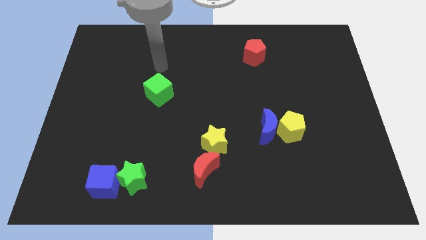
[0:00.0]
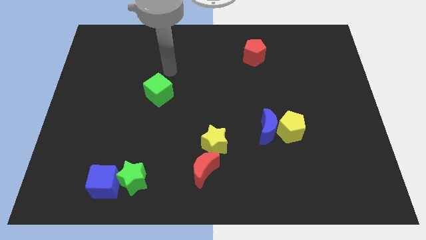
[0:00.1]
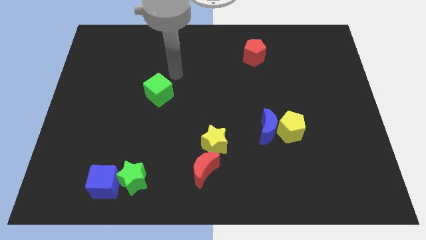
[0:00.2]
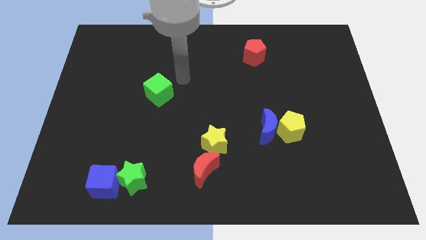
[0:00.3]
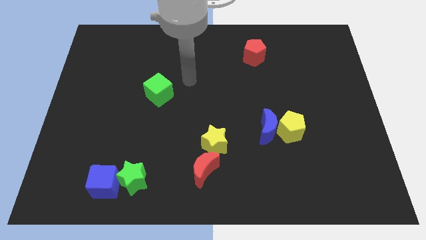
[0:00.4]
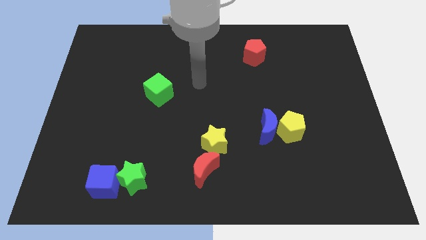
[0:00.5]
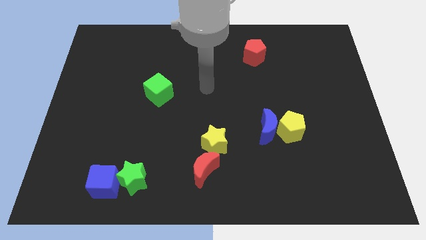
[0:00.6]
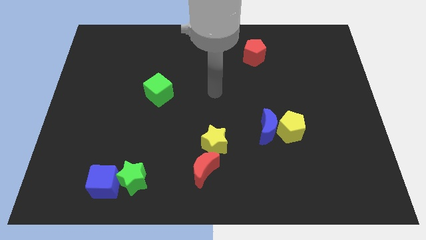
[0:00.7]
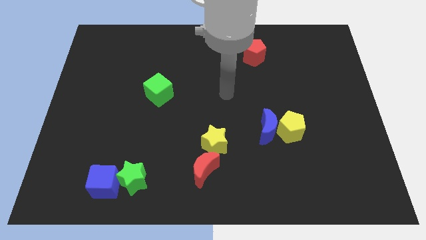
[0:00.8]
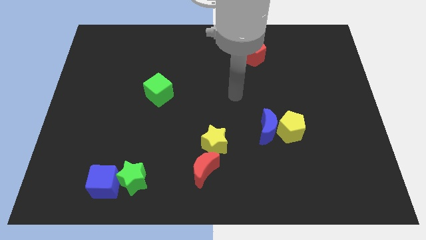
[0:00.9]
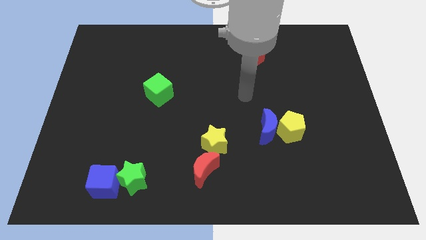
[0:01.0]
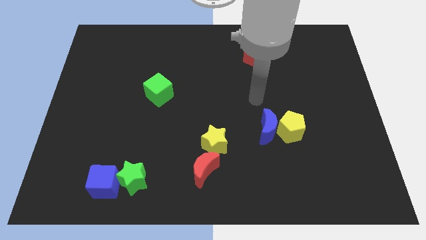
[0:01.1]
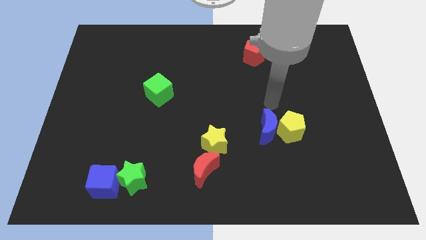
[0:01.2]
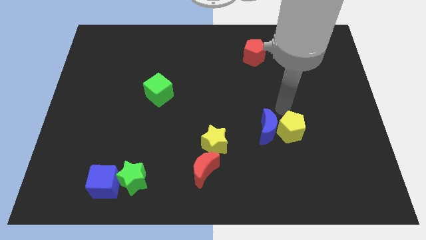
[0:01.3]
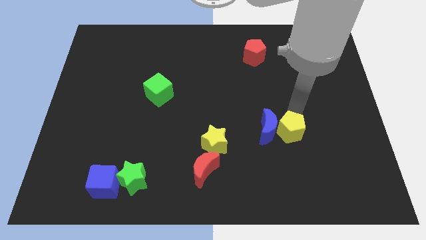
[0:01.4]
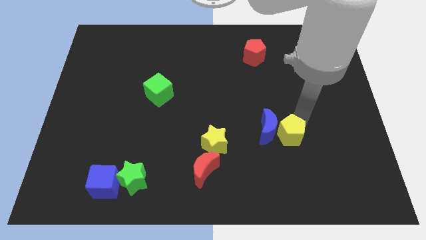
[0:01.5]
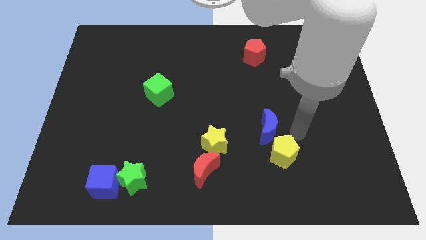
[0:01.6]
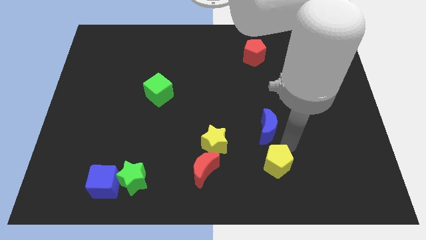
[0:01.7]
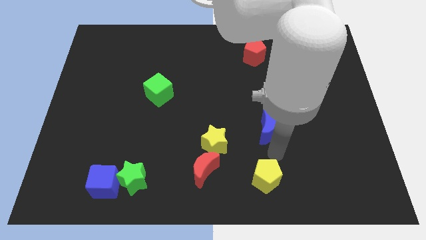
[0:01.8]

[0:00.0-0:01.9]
move the blue moon away from the yellow pentagon

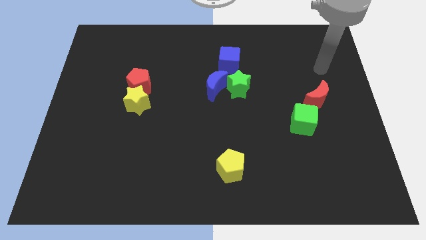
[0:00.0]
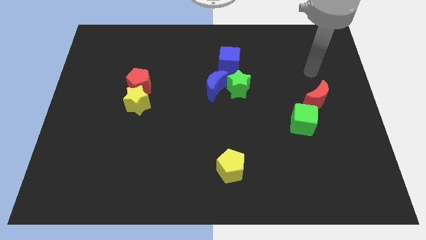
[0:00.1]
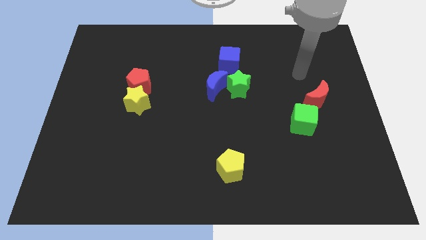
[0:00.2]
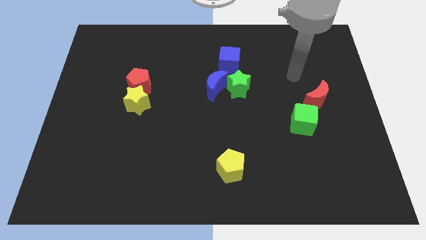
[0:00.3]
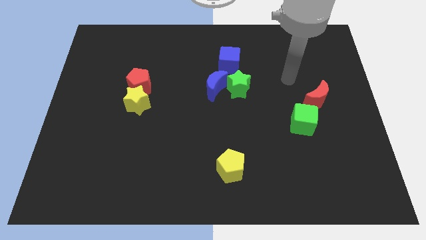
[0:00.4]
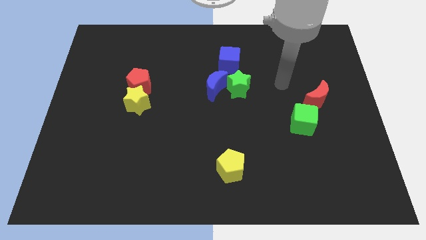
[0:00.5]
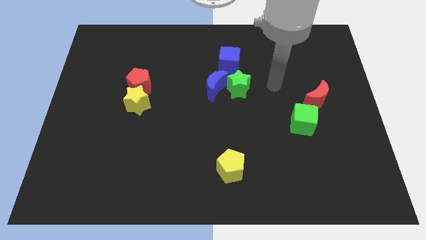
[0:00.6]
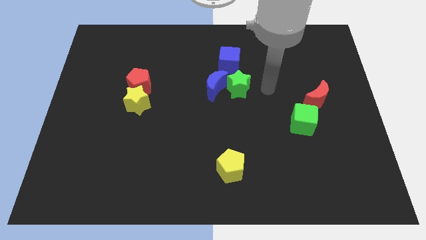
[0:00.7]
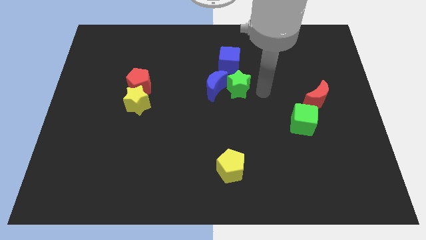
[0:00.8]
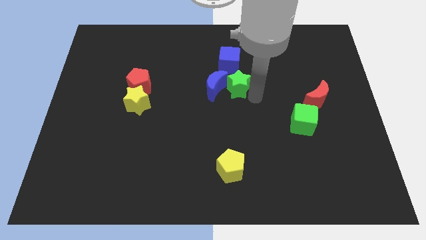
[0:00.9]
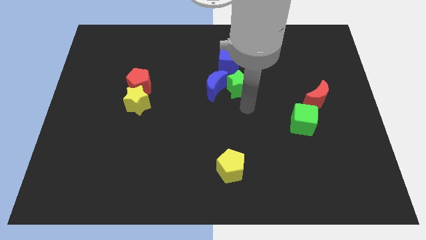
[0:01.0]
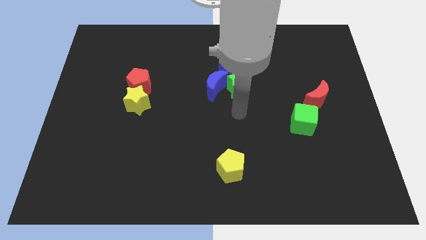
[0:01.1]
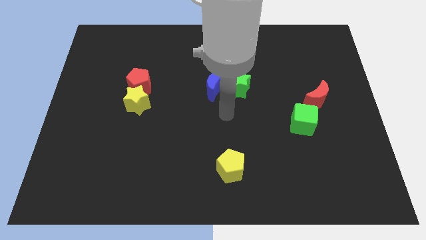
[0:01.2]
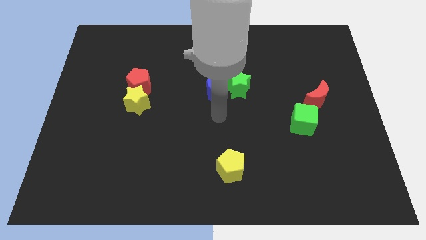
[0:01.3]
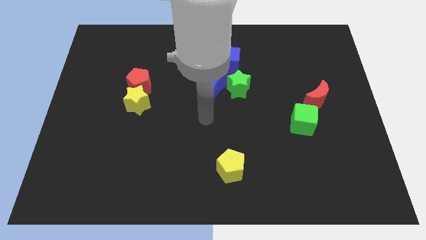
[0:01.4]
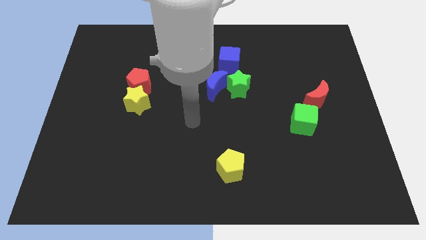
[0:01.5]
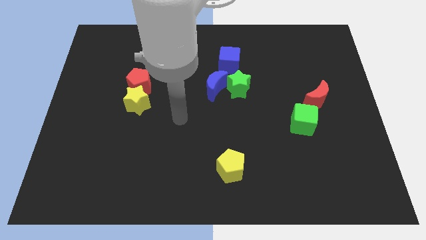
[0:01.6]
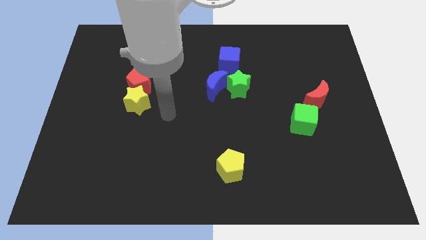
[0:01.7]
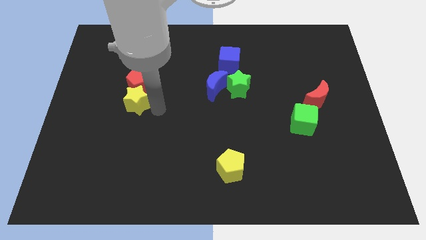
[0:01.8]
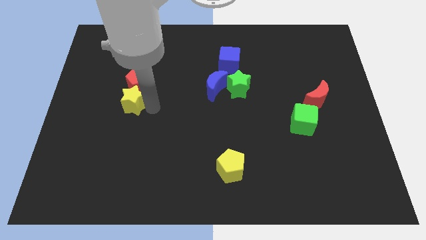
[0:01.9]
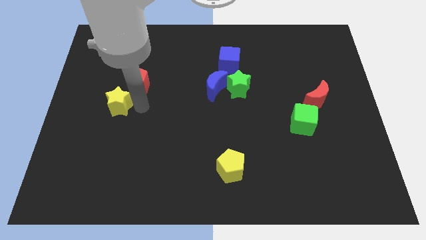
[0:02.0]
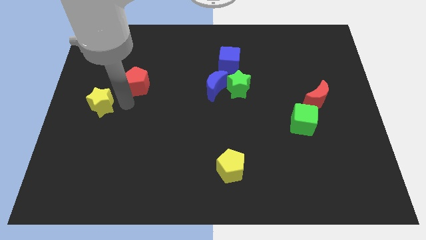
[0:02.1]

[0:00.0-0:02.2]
separate the red pentagon from the yellow star

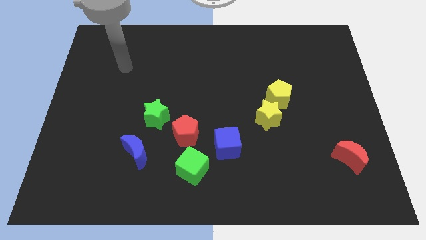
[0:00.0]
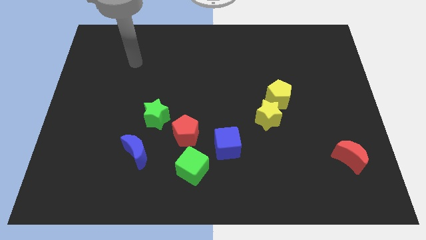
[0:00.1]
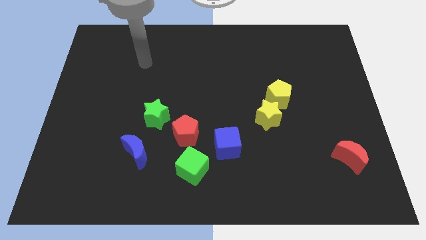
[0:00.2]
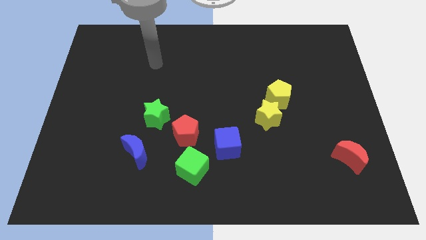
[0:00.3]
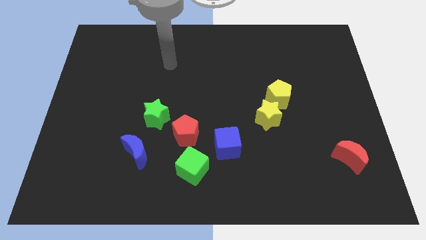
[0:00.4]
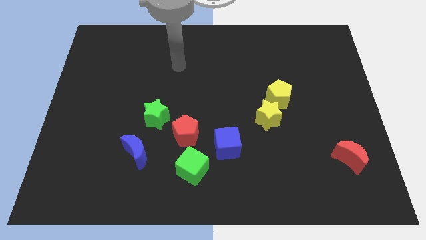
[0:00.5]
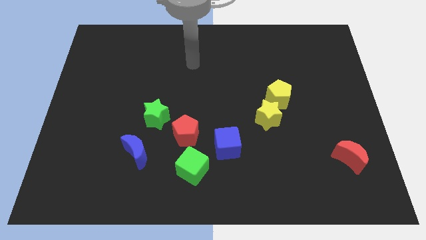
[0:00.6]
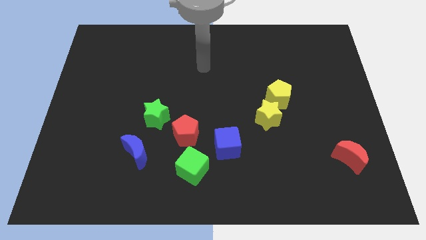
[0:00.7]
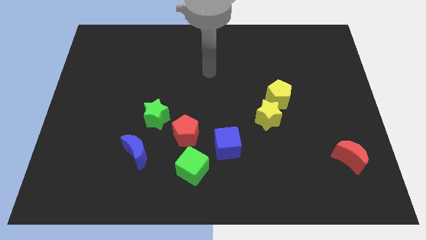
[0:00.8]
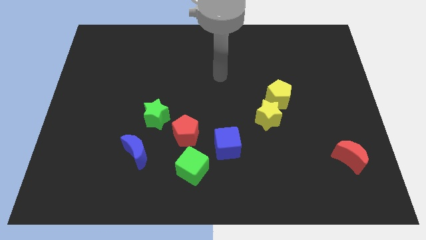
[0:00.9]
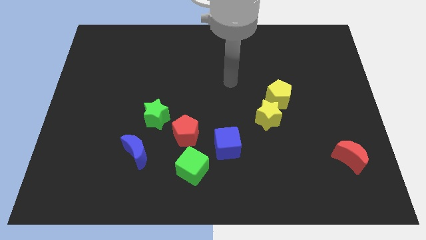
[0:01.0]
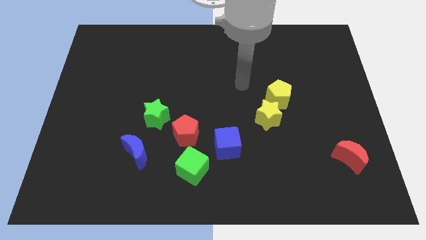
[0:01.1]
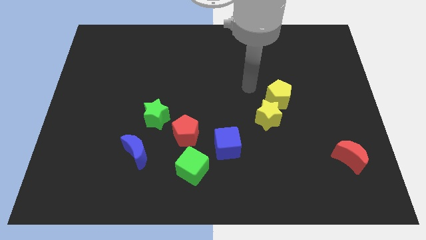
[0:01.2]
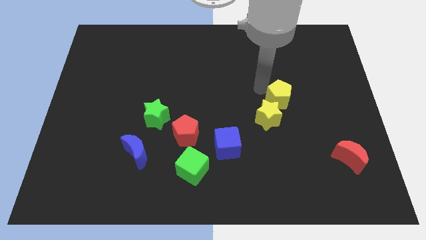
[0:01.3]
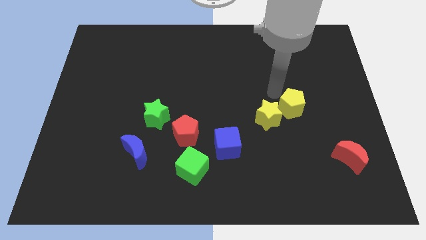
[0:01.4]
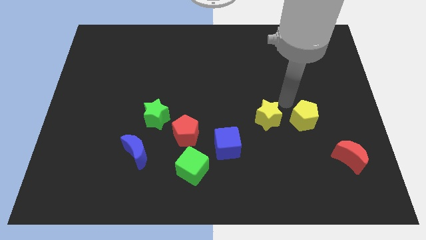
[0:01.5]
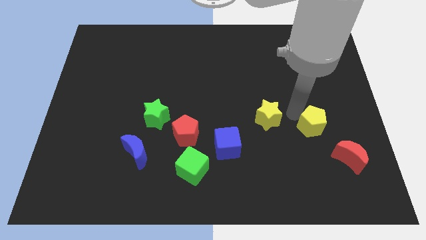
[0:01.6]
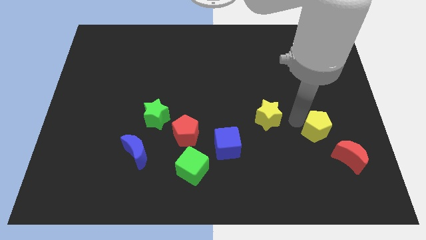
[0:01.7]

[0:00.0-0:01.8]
separate the yellow star from the yellow pentagon

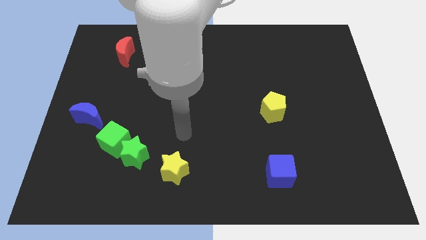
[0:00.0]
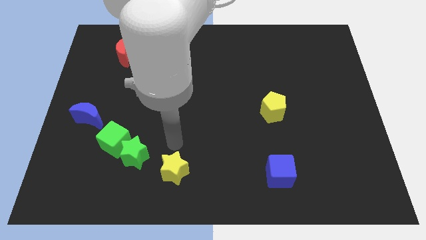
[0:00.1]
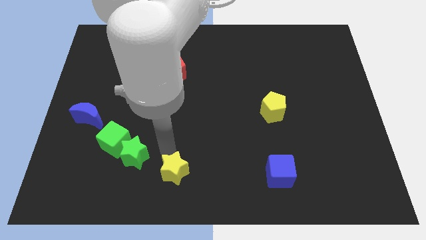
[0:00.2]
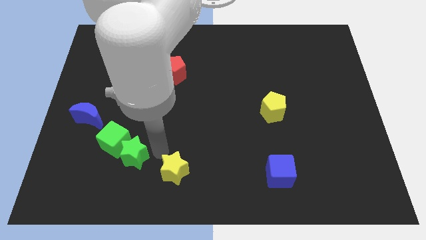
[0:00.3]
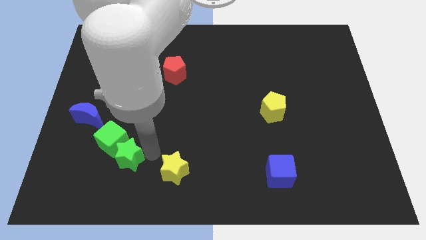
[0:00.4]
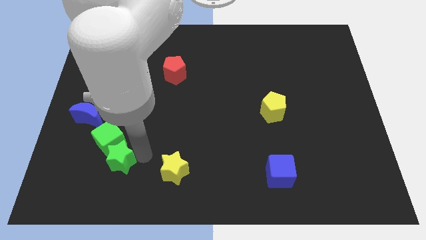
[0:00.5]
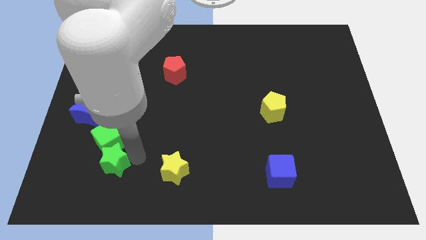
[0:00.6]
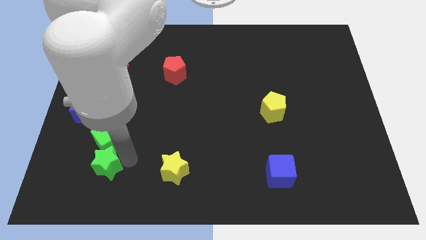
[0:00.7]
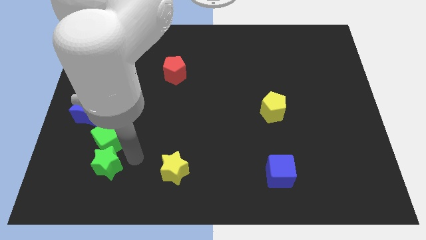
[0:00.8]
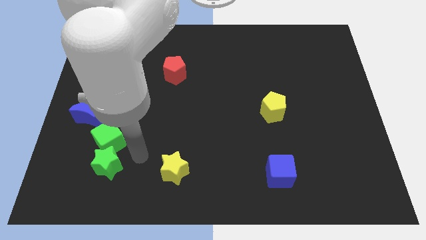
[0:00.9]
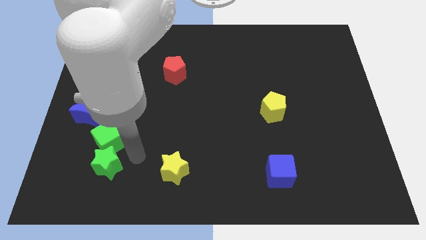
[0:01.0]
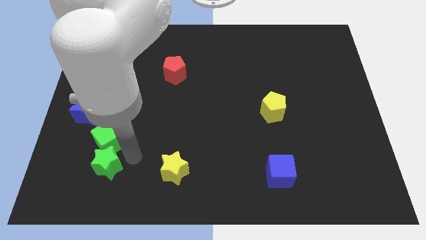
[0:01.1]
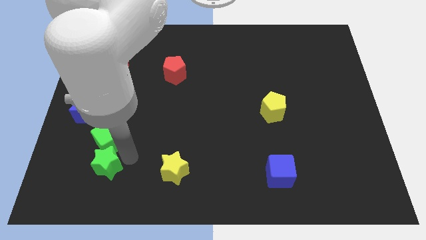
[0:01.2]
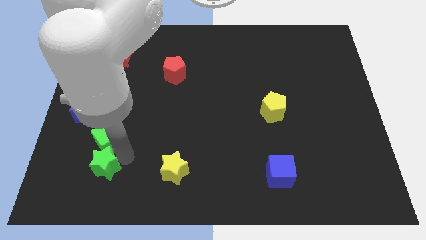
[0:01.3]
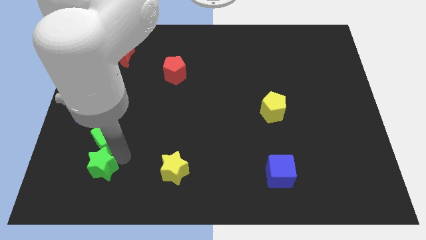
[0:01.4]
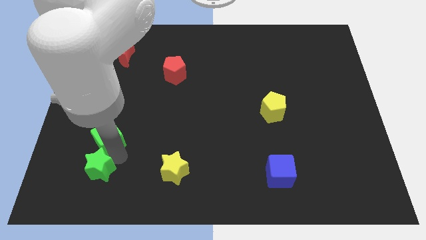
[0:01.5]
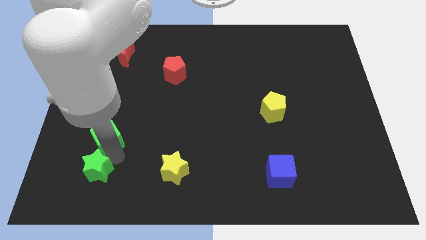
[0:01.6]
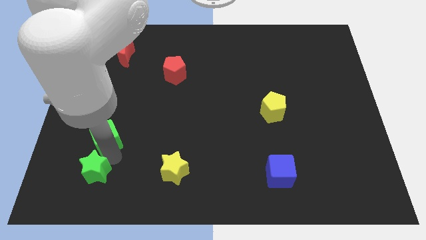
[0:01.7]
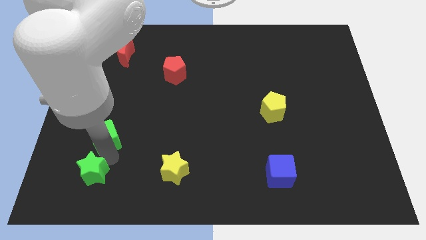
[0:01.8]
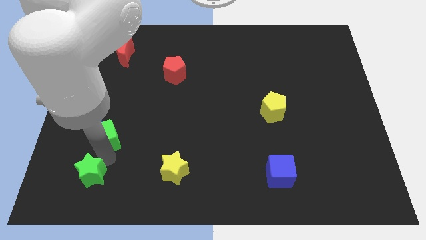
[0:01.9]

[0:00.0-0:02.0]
pull the green star apart from the green cube and yellow star

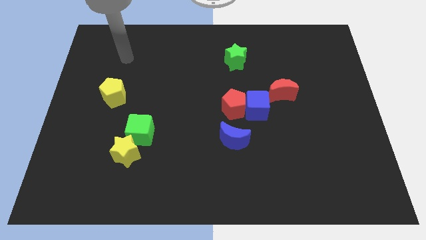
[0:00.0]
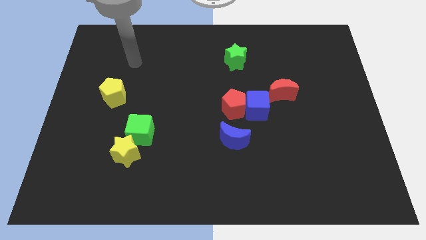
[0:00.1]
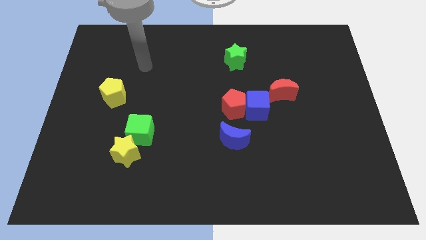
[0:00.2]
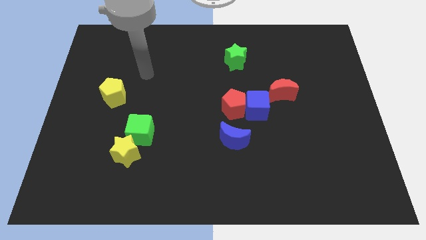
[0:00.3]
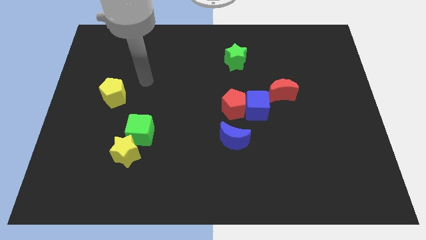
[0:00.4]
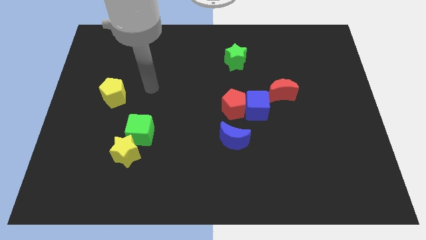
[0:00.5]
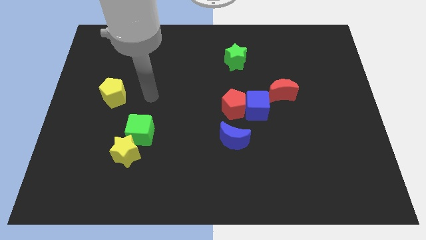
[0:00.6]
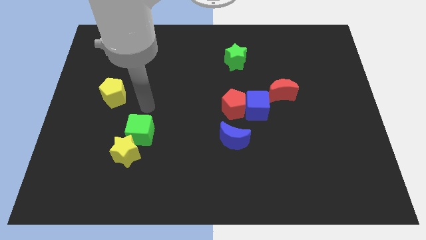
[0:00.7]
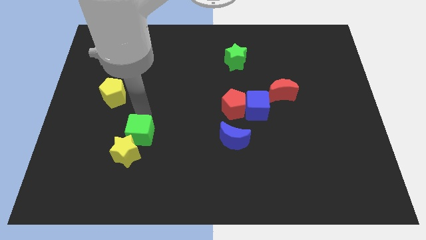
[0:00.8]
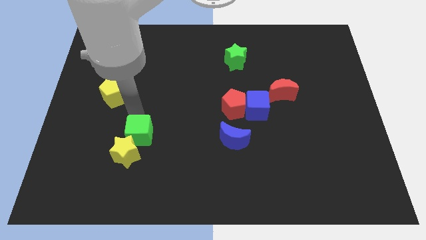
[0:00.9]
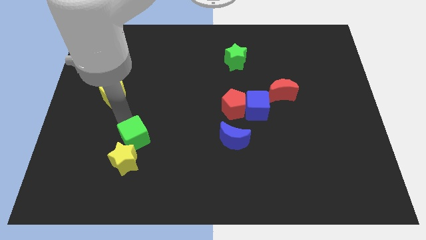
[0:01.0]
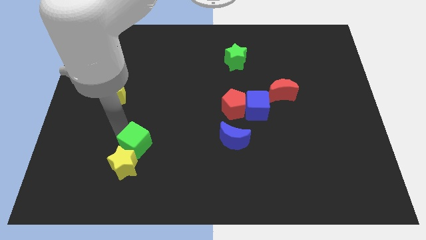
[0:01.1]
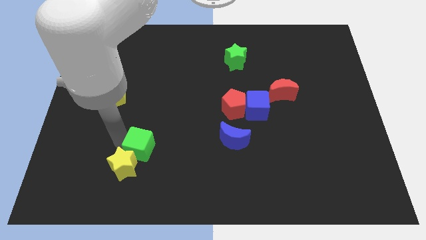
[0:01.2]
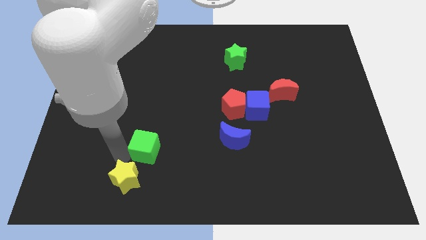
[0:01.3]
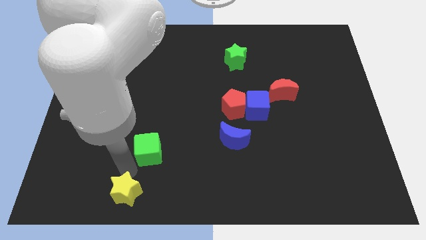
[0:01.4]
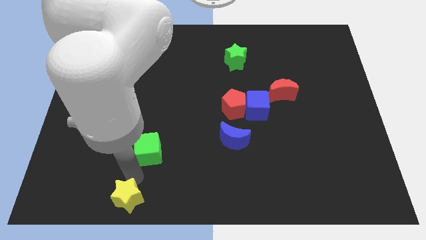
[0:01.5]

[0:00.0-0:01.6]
pull the green cube apart from the yellow star
